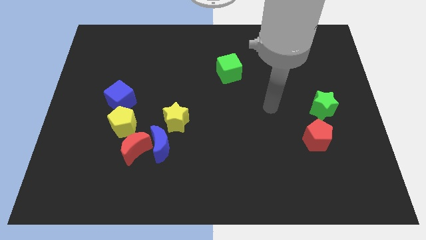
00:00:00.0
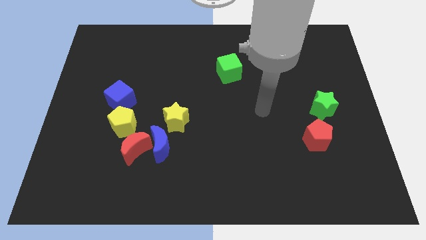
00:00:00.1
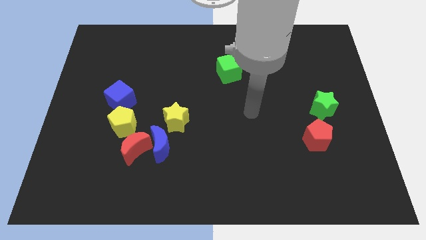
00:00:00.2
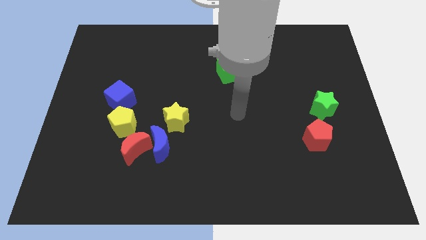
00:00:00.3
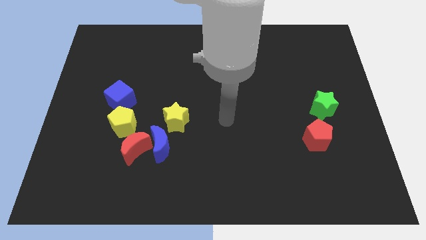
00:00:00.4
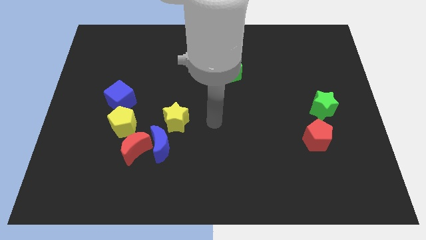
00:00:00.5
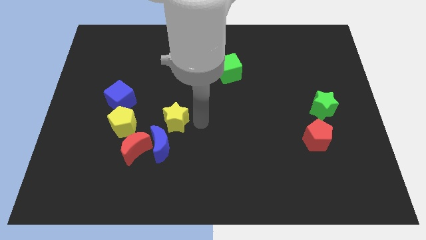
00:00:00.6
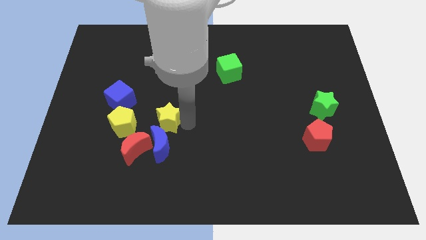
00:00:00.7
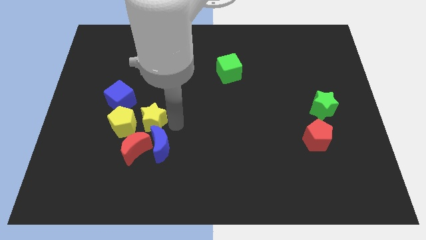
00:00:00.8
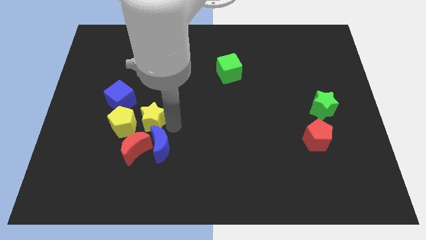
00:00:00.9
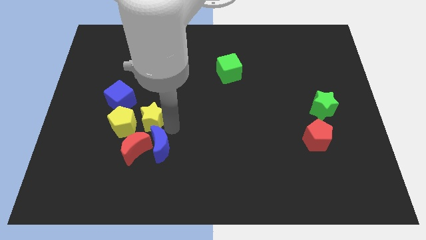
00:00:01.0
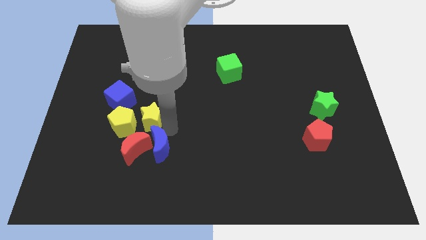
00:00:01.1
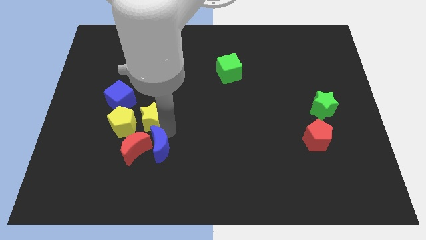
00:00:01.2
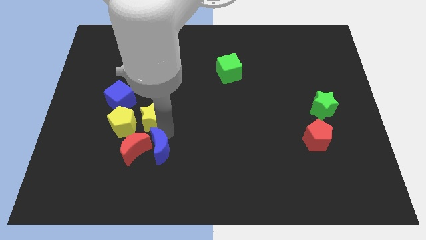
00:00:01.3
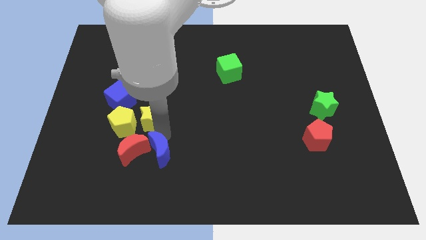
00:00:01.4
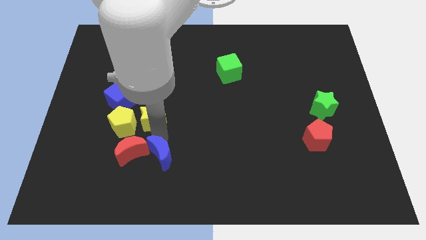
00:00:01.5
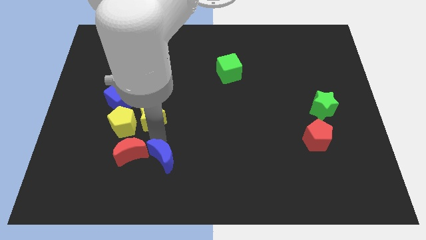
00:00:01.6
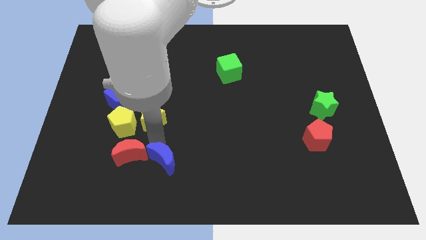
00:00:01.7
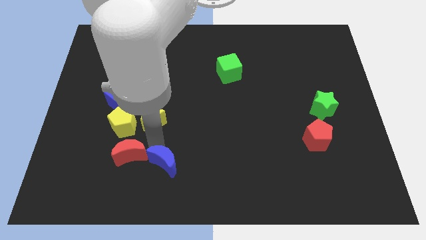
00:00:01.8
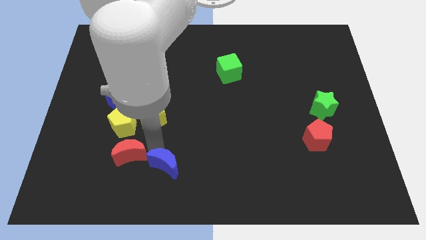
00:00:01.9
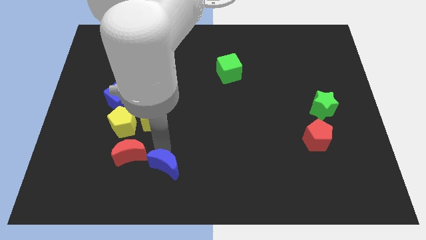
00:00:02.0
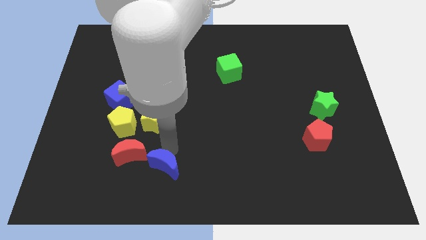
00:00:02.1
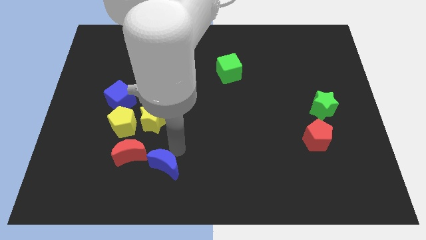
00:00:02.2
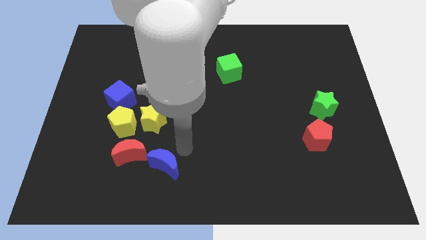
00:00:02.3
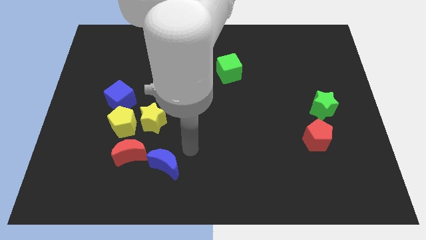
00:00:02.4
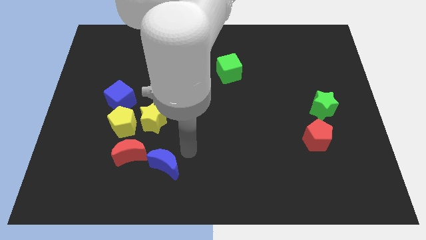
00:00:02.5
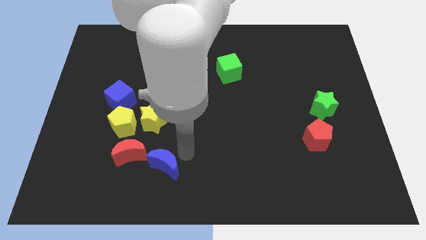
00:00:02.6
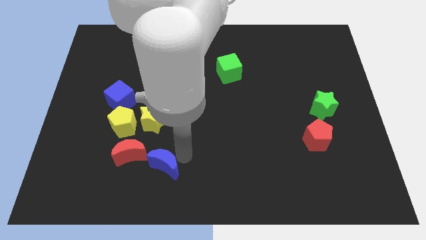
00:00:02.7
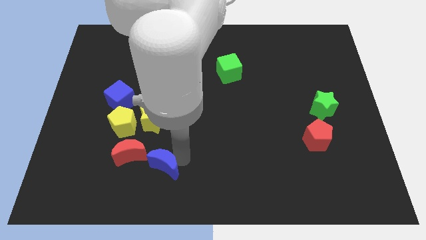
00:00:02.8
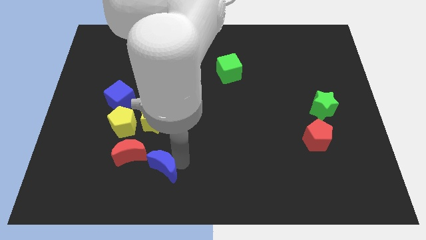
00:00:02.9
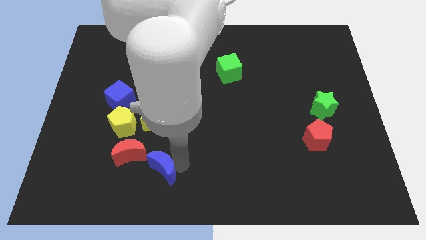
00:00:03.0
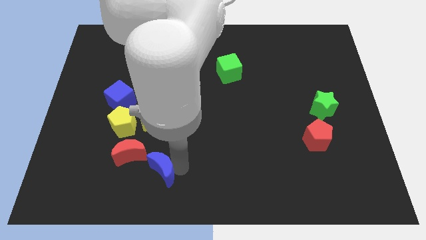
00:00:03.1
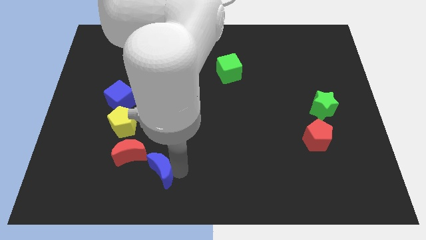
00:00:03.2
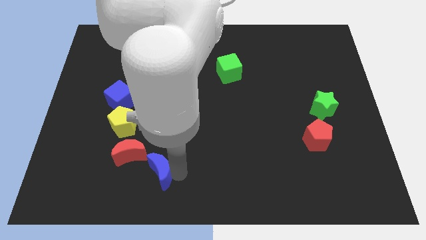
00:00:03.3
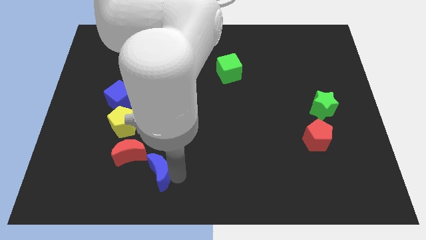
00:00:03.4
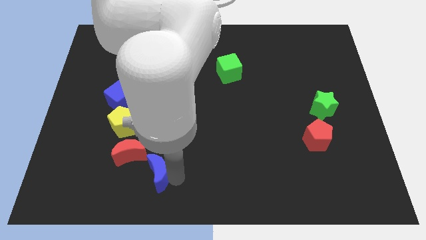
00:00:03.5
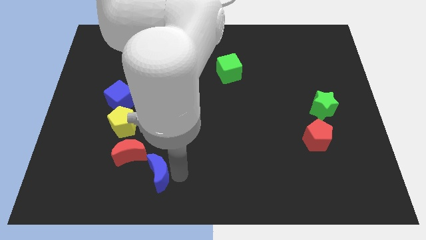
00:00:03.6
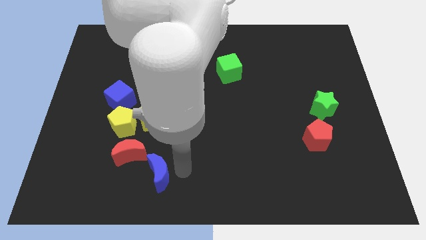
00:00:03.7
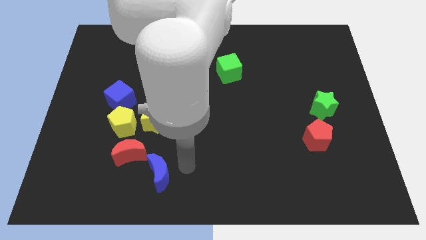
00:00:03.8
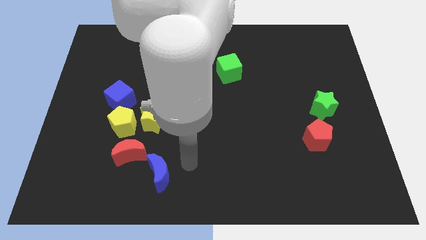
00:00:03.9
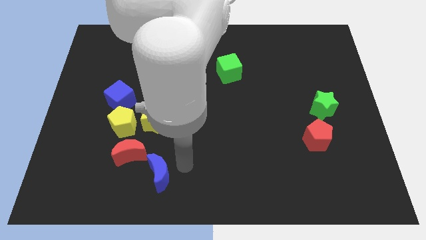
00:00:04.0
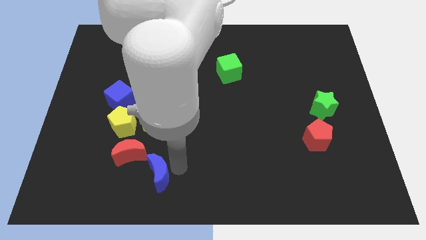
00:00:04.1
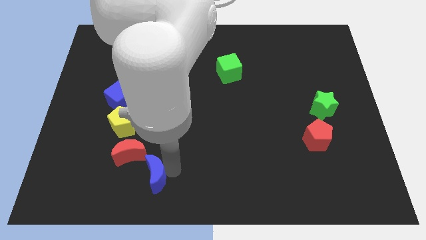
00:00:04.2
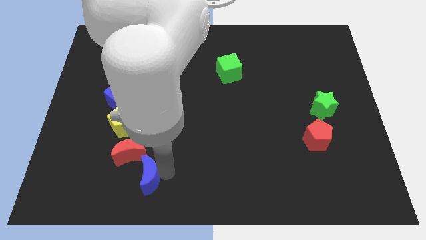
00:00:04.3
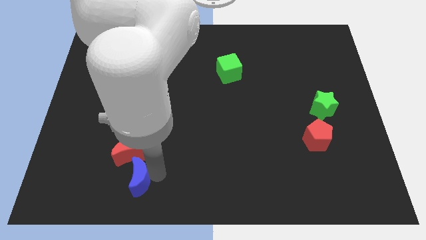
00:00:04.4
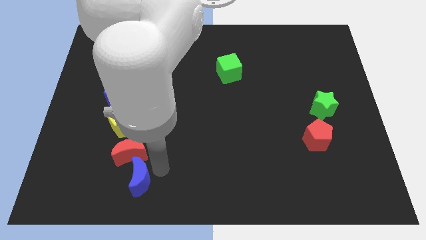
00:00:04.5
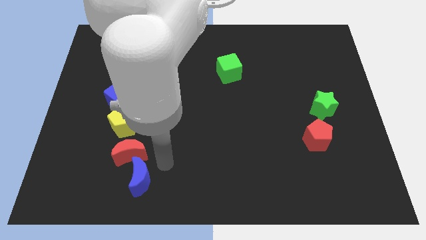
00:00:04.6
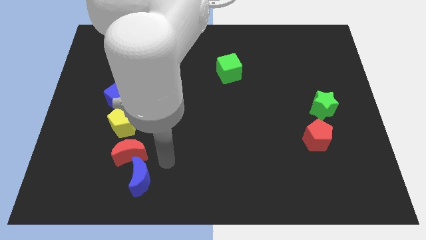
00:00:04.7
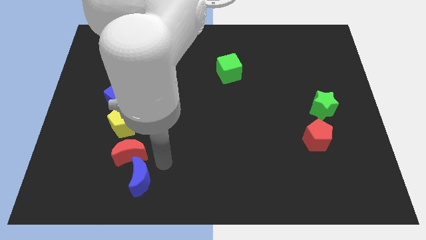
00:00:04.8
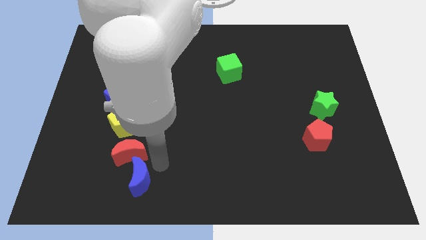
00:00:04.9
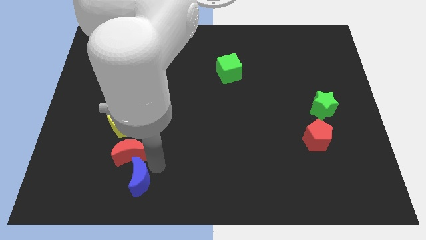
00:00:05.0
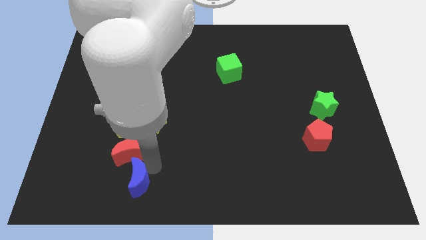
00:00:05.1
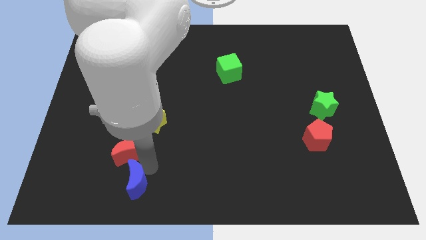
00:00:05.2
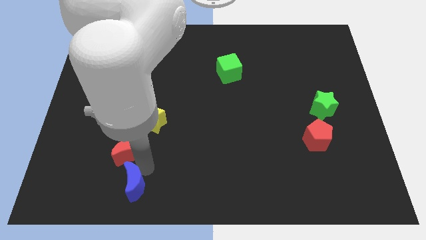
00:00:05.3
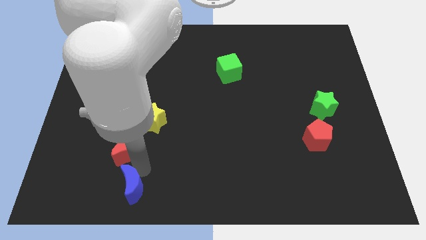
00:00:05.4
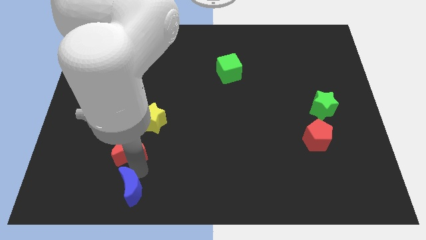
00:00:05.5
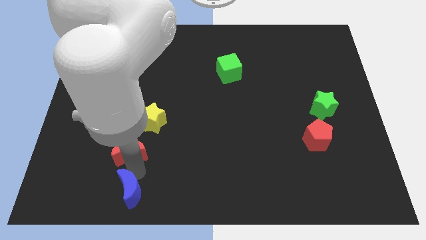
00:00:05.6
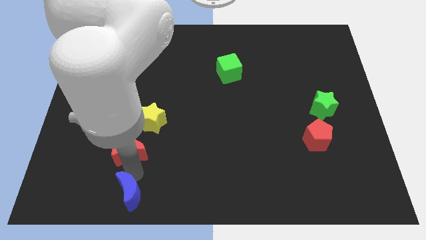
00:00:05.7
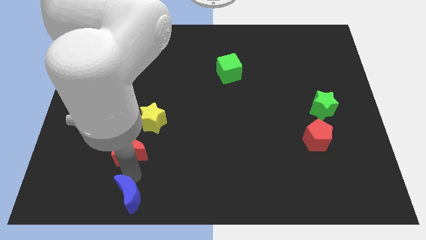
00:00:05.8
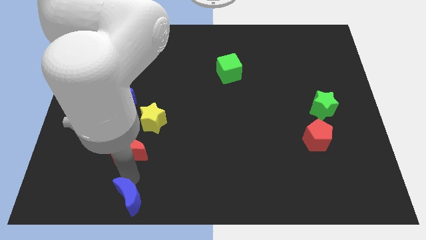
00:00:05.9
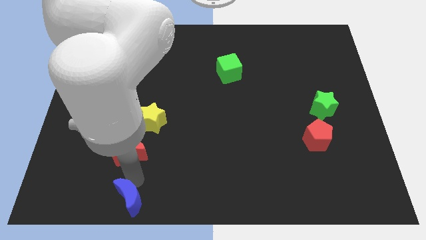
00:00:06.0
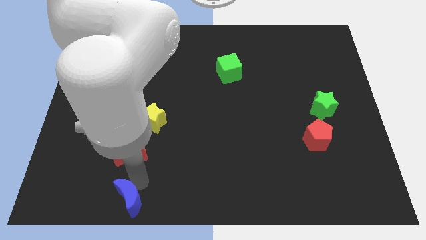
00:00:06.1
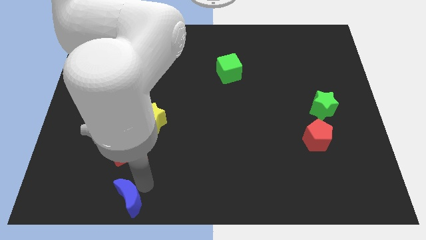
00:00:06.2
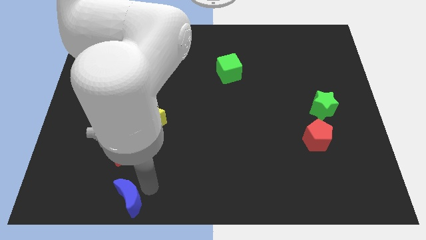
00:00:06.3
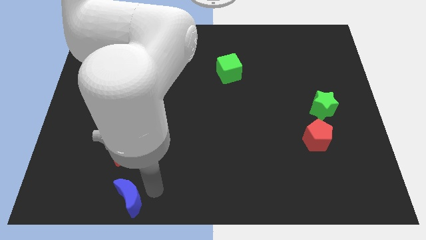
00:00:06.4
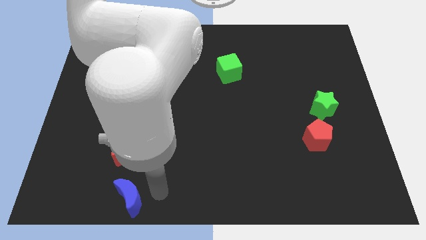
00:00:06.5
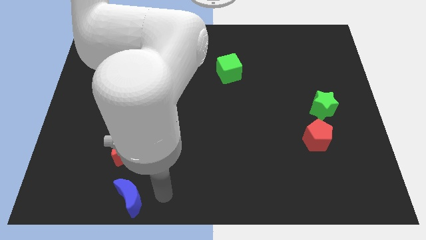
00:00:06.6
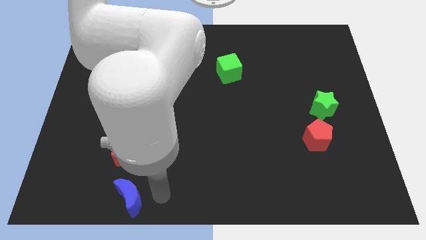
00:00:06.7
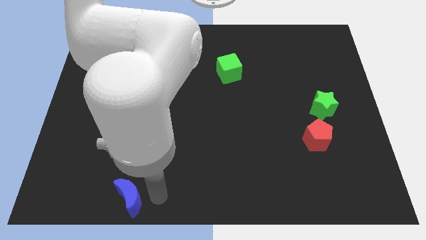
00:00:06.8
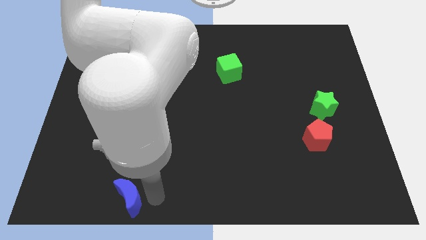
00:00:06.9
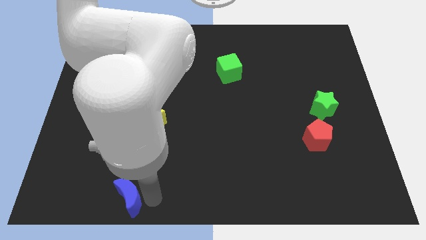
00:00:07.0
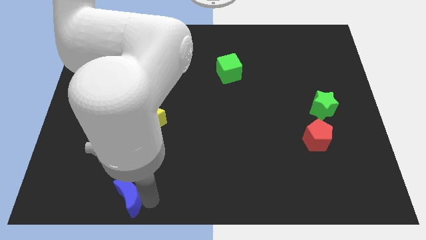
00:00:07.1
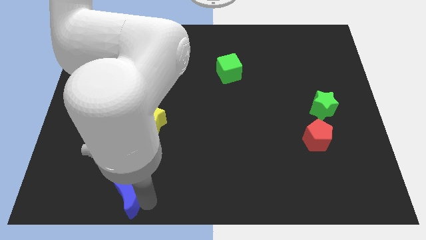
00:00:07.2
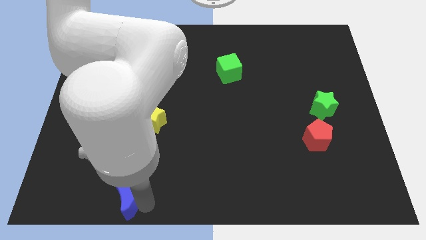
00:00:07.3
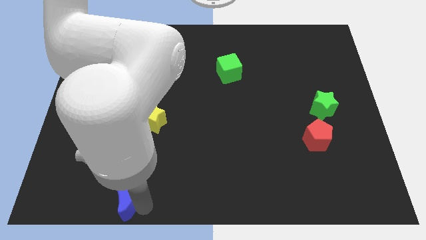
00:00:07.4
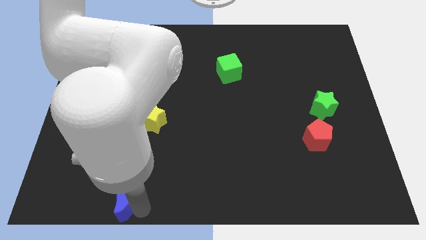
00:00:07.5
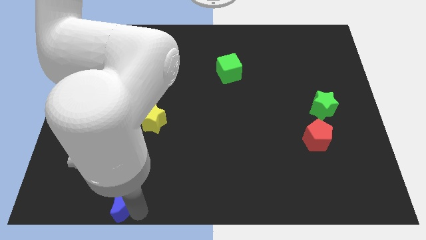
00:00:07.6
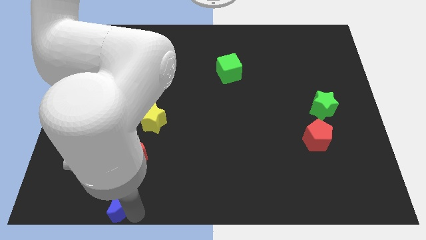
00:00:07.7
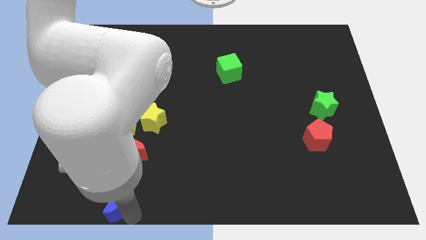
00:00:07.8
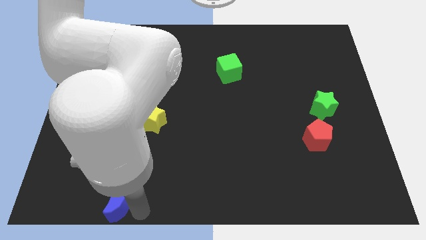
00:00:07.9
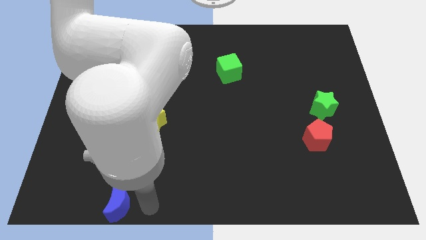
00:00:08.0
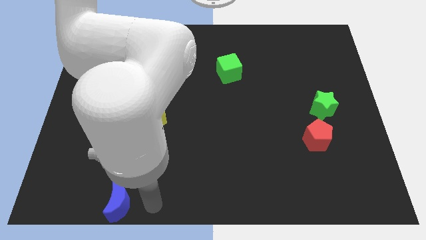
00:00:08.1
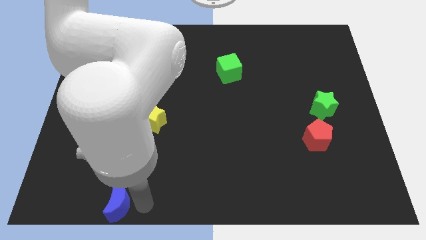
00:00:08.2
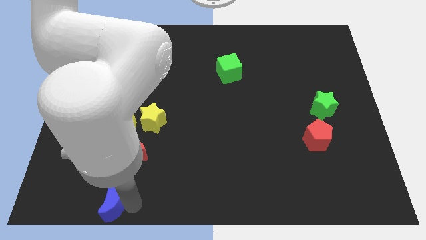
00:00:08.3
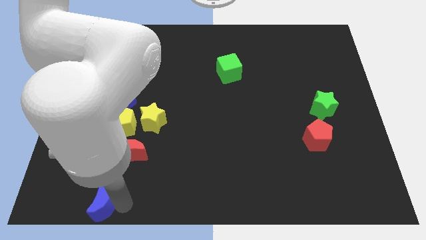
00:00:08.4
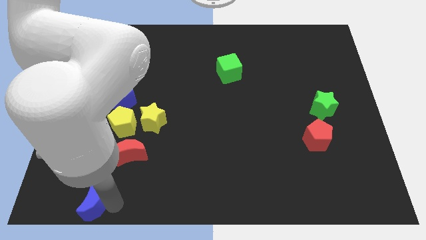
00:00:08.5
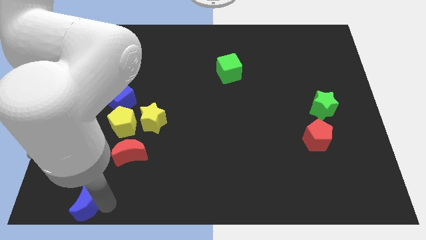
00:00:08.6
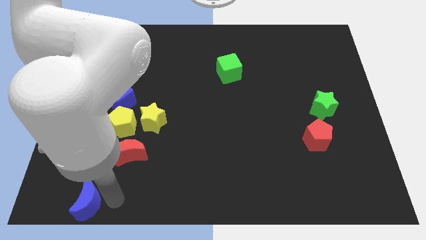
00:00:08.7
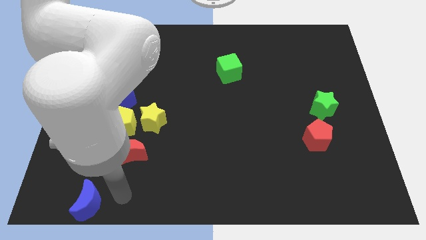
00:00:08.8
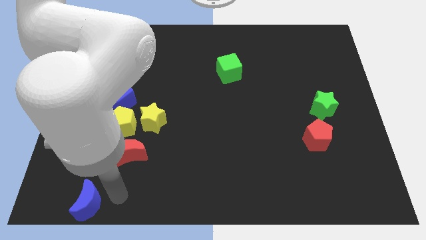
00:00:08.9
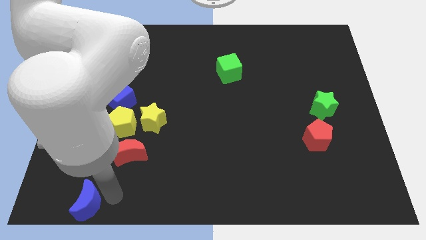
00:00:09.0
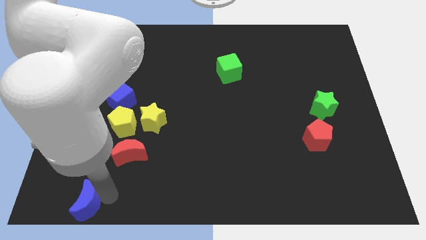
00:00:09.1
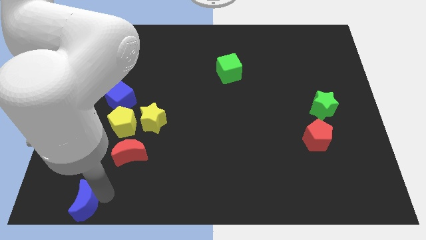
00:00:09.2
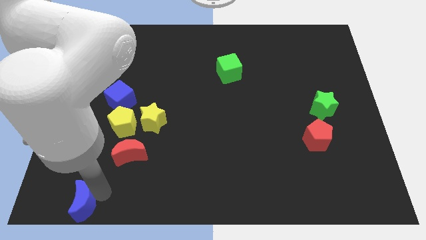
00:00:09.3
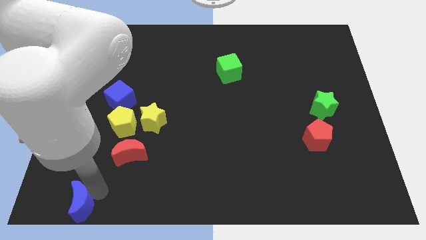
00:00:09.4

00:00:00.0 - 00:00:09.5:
move the blue moon to the bottom left of the board
